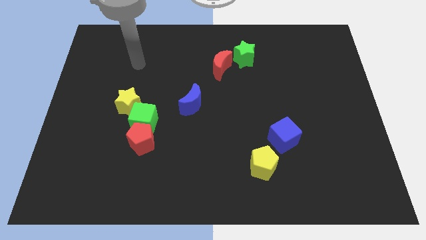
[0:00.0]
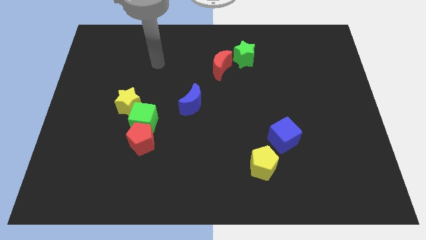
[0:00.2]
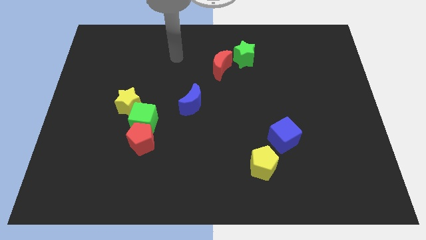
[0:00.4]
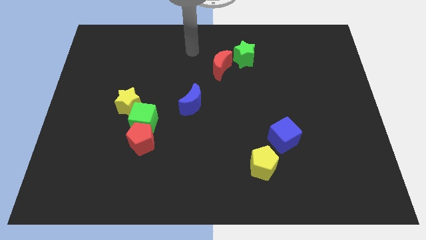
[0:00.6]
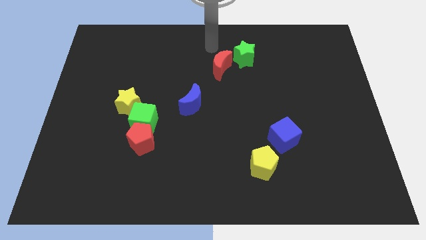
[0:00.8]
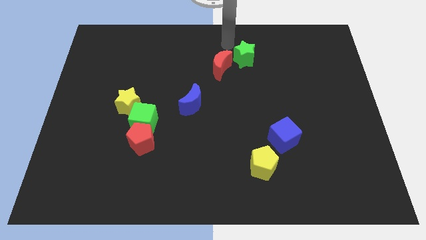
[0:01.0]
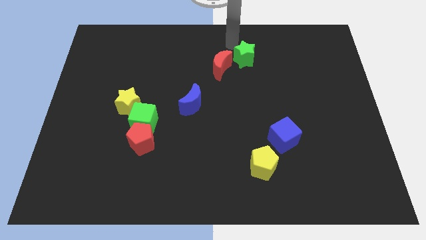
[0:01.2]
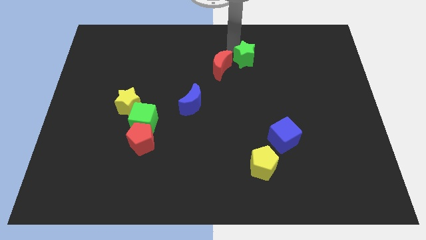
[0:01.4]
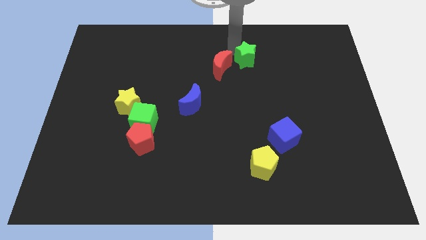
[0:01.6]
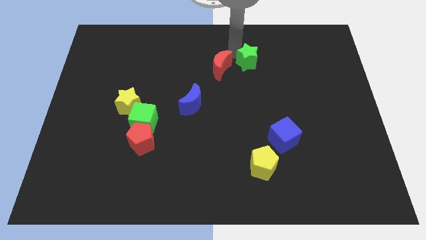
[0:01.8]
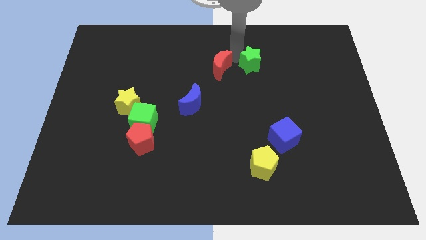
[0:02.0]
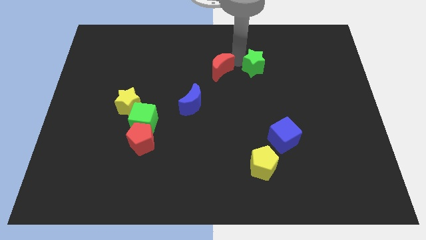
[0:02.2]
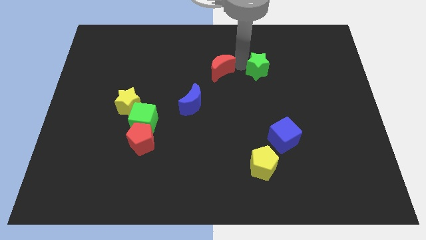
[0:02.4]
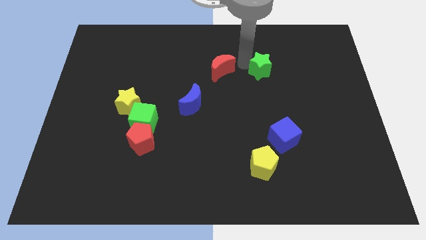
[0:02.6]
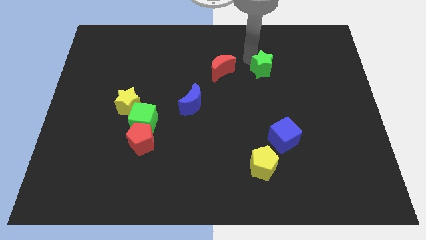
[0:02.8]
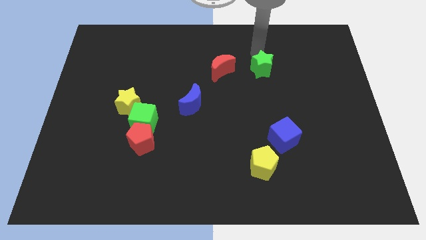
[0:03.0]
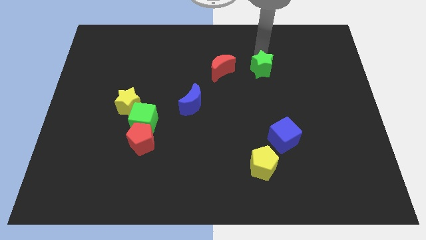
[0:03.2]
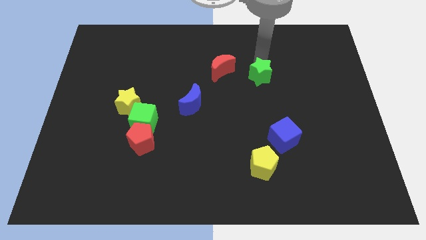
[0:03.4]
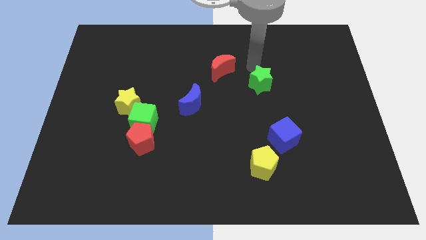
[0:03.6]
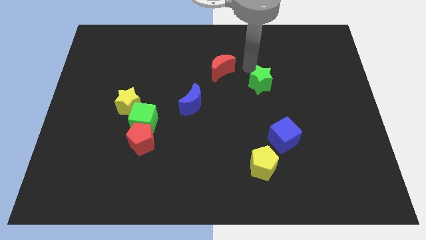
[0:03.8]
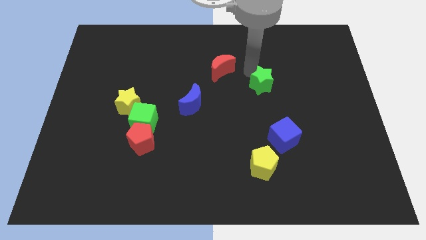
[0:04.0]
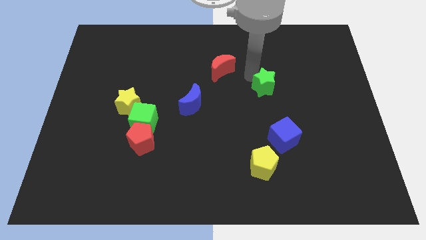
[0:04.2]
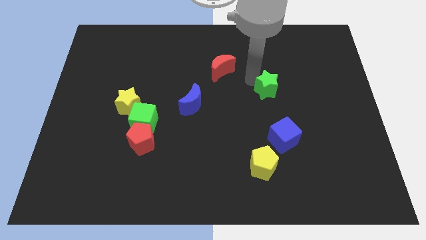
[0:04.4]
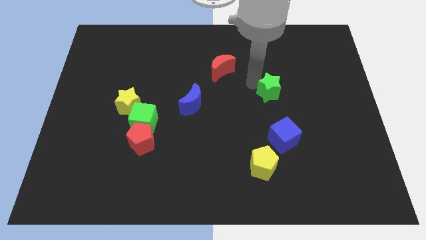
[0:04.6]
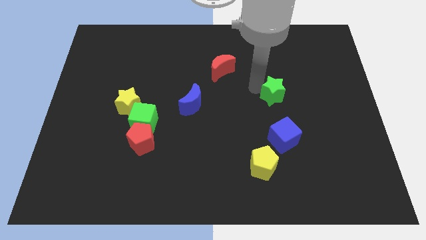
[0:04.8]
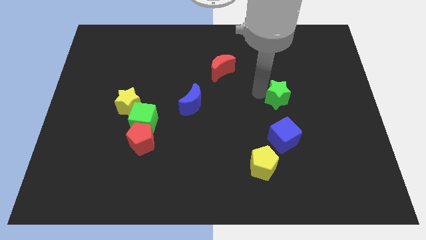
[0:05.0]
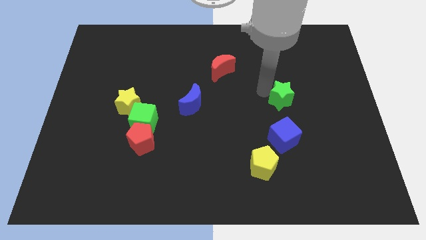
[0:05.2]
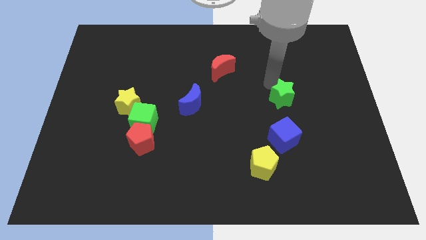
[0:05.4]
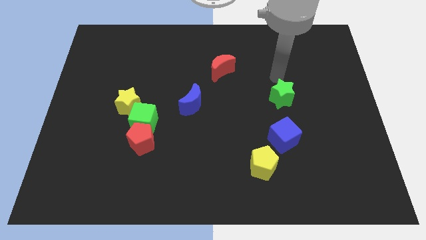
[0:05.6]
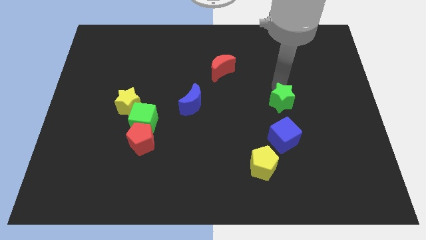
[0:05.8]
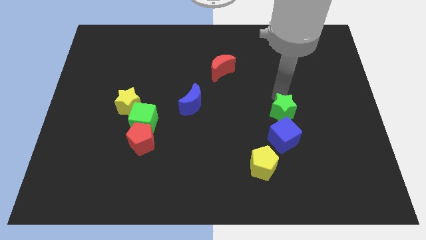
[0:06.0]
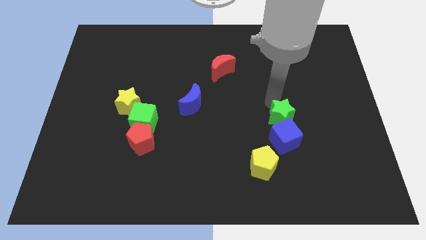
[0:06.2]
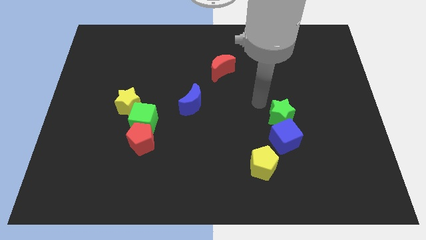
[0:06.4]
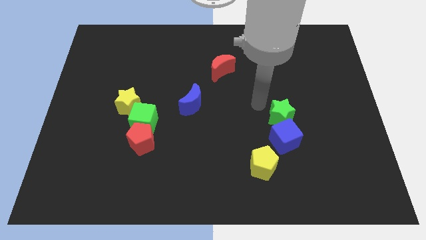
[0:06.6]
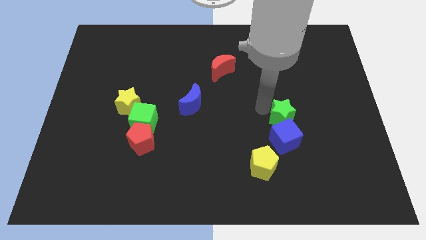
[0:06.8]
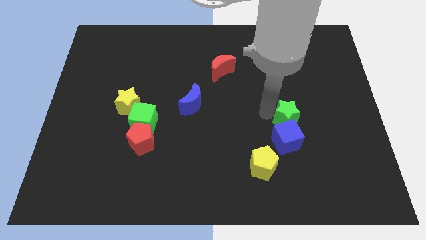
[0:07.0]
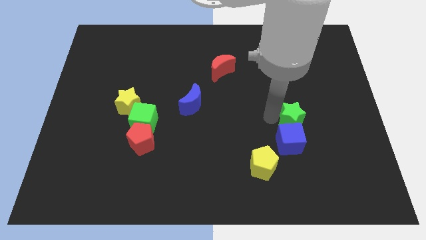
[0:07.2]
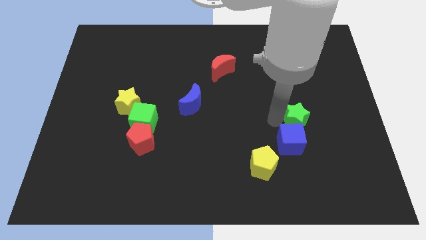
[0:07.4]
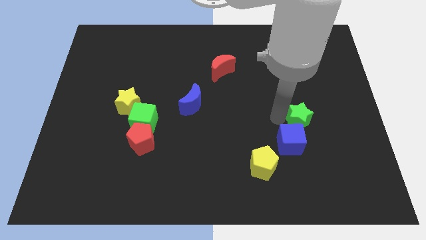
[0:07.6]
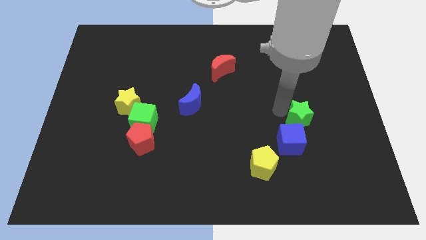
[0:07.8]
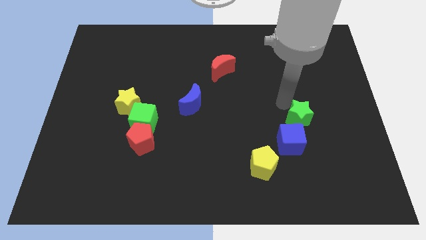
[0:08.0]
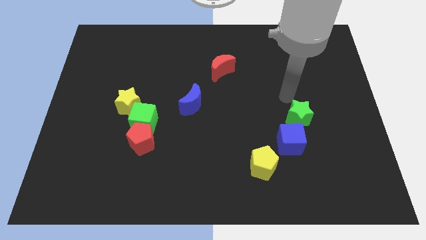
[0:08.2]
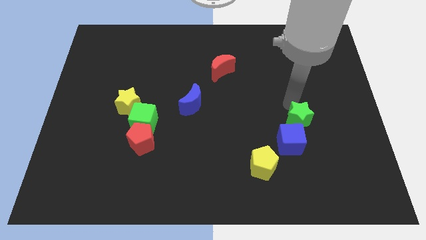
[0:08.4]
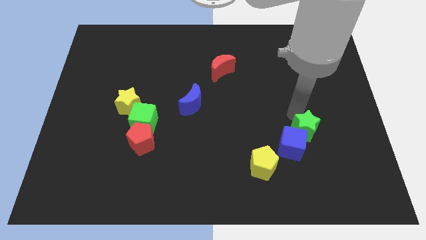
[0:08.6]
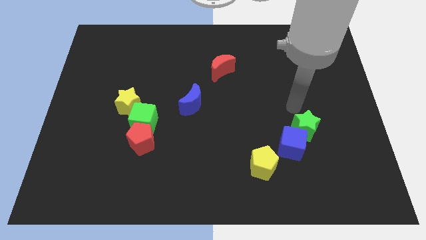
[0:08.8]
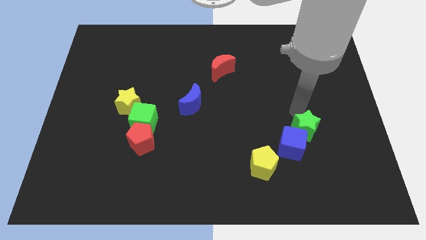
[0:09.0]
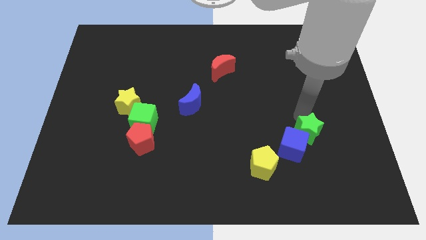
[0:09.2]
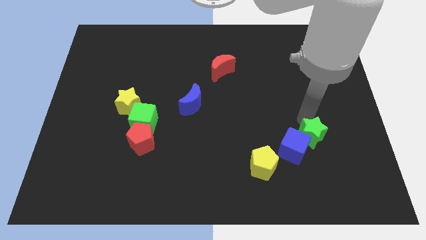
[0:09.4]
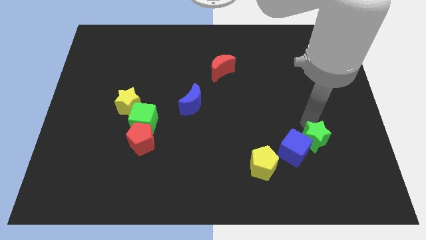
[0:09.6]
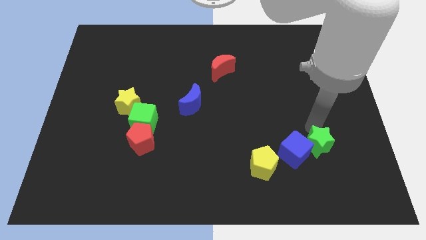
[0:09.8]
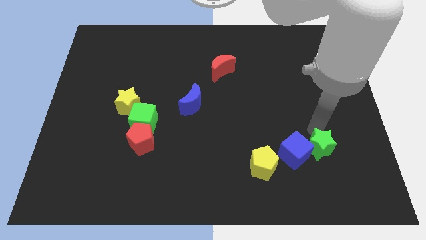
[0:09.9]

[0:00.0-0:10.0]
move the green star to the right of the yellow pentagon
